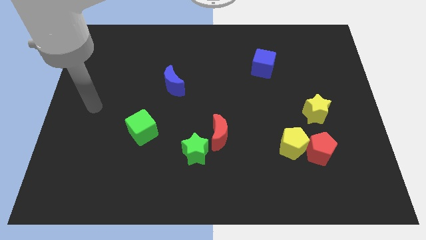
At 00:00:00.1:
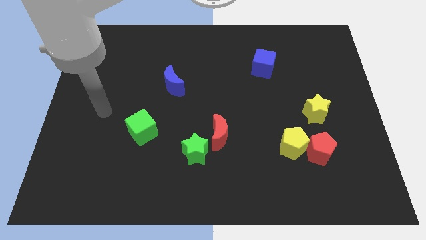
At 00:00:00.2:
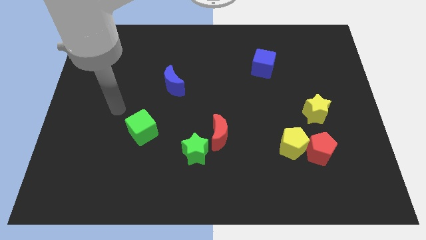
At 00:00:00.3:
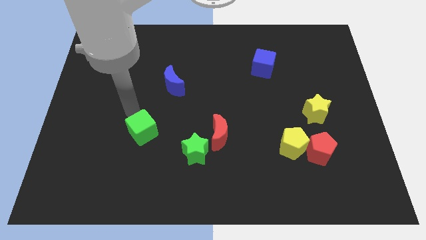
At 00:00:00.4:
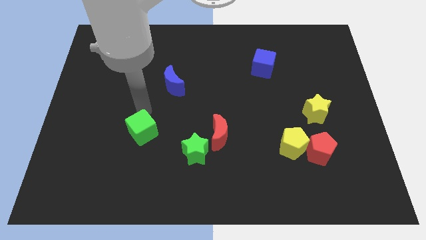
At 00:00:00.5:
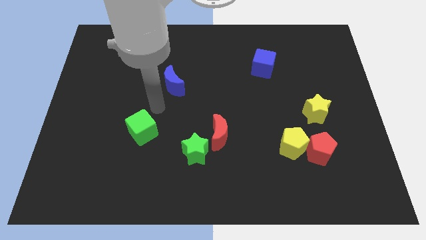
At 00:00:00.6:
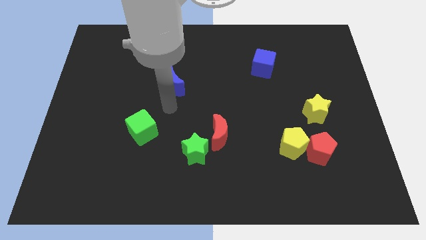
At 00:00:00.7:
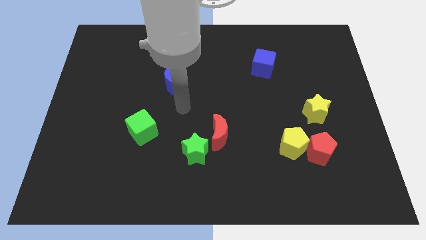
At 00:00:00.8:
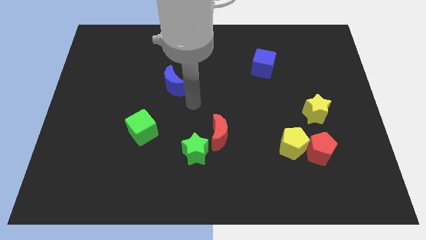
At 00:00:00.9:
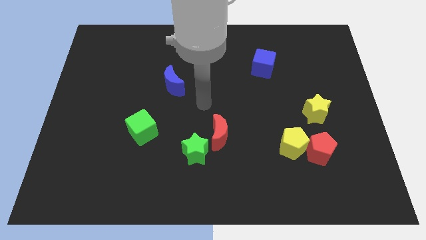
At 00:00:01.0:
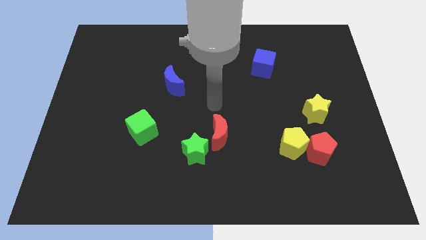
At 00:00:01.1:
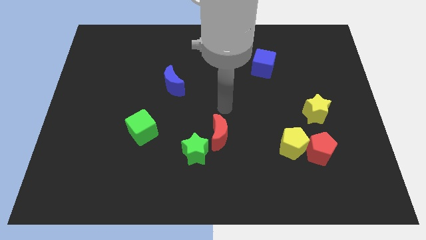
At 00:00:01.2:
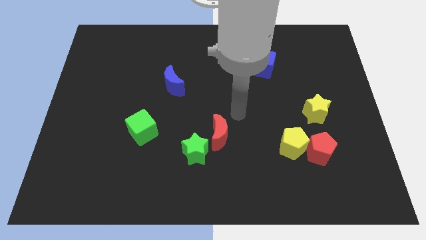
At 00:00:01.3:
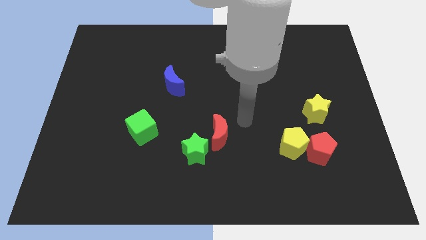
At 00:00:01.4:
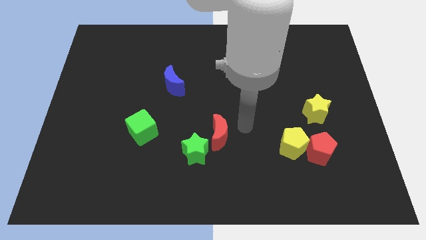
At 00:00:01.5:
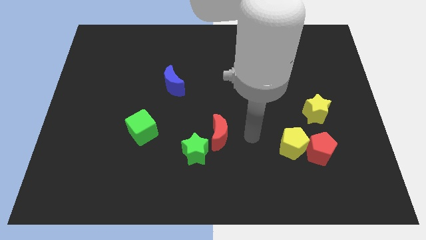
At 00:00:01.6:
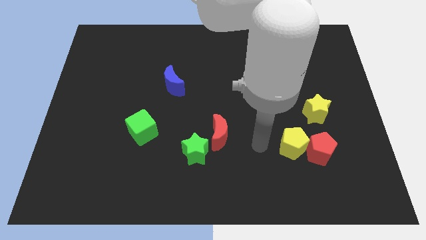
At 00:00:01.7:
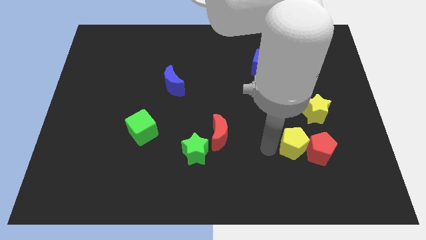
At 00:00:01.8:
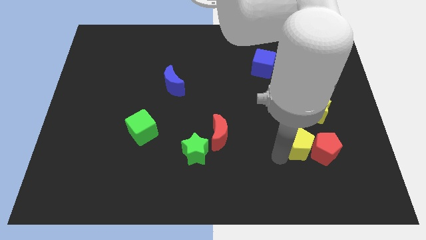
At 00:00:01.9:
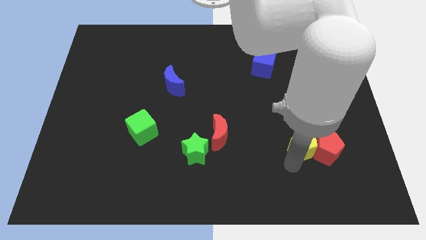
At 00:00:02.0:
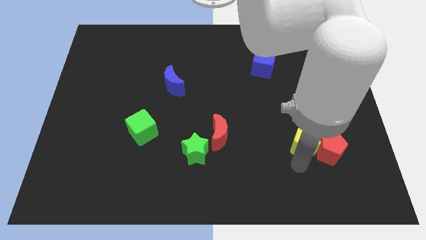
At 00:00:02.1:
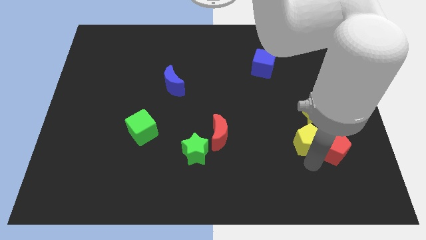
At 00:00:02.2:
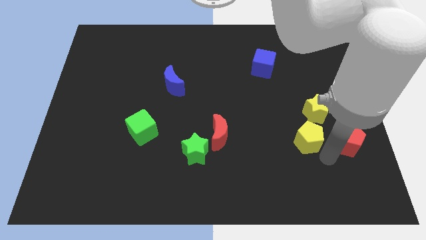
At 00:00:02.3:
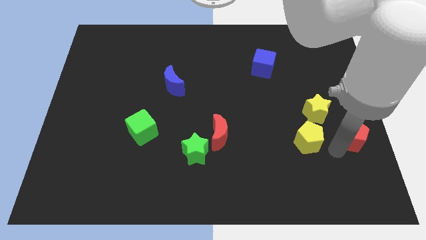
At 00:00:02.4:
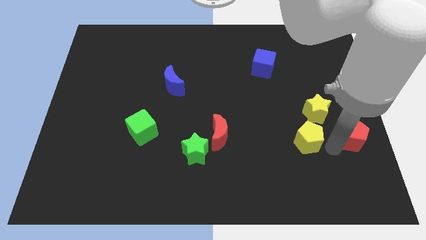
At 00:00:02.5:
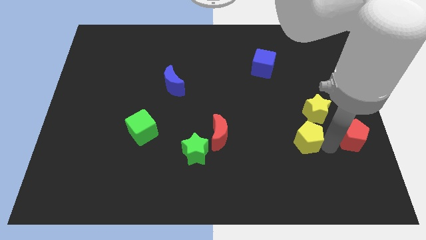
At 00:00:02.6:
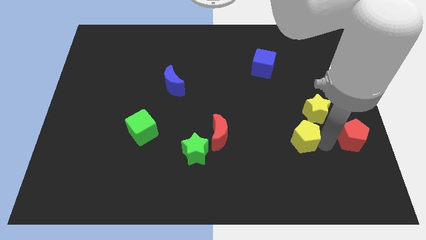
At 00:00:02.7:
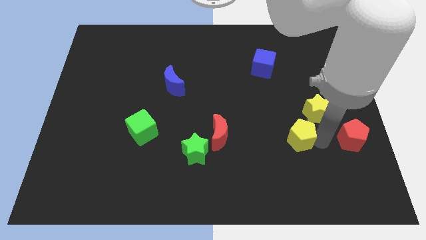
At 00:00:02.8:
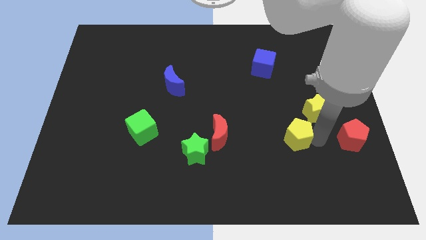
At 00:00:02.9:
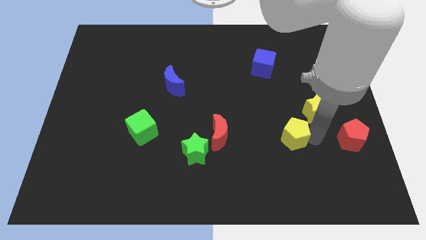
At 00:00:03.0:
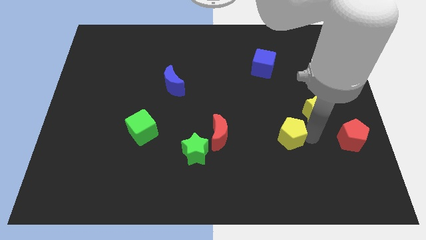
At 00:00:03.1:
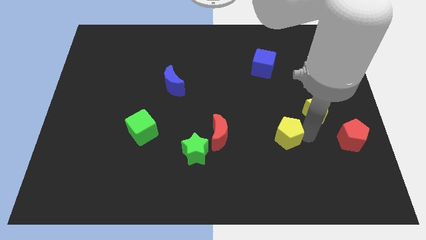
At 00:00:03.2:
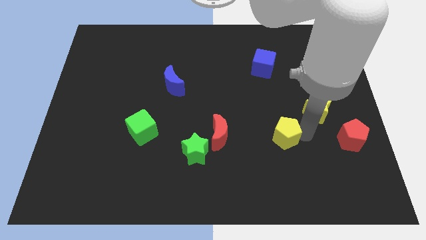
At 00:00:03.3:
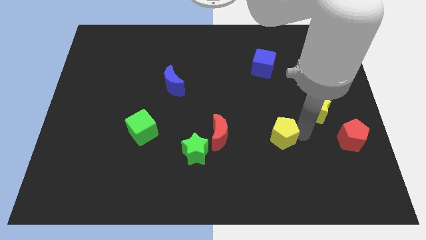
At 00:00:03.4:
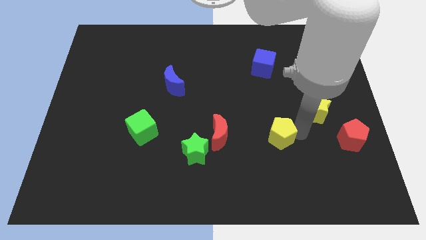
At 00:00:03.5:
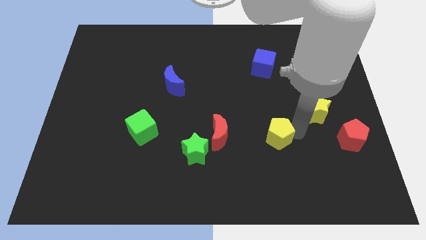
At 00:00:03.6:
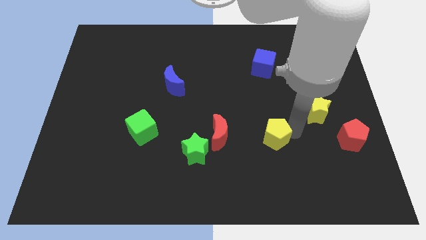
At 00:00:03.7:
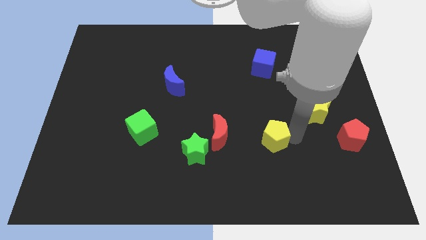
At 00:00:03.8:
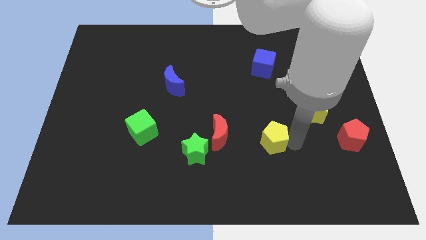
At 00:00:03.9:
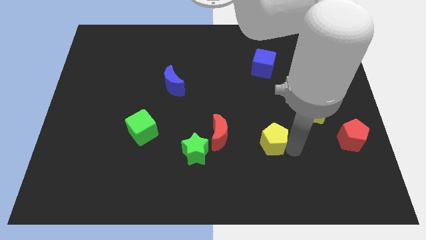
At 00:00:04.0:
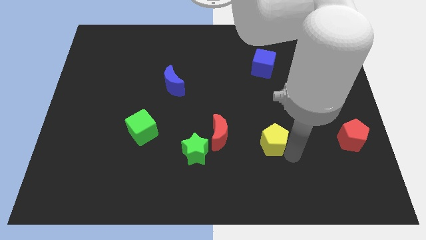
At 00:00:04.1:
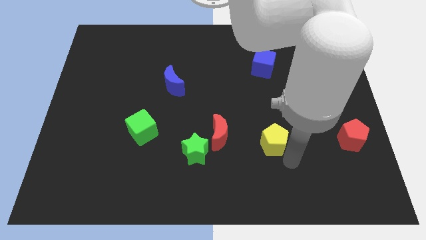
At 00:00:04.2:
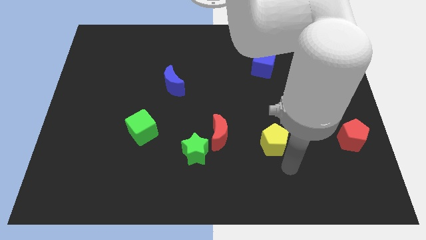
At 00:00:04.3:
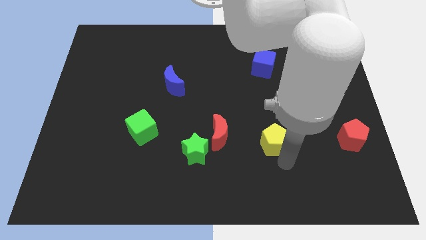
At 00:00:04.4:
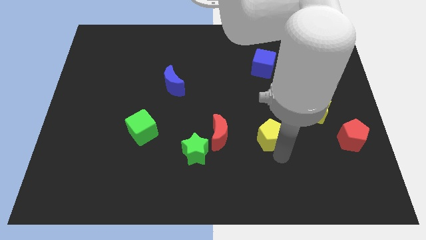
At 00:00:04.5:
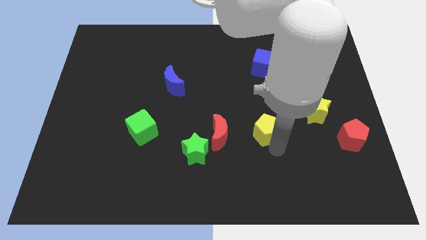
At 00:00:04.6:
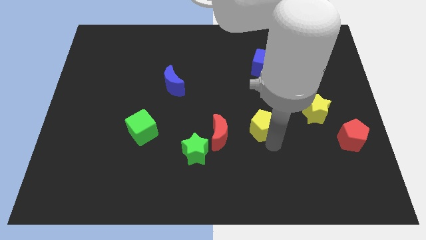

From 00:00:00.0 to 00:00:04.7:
slightly slide the yellow pentagon diagonally up and to the left

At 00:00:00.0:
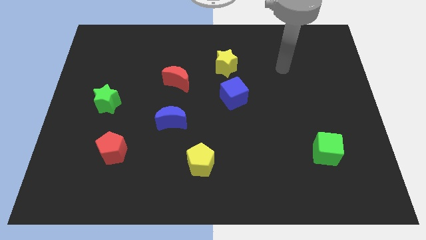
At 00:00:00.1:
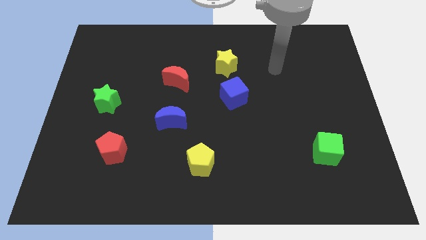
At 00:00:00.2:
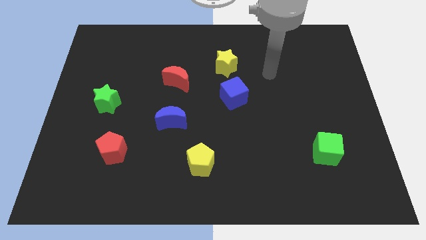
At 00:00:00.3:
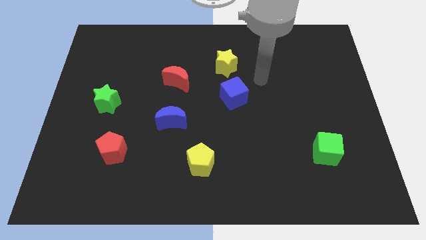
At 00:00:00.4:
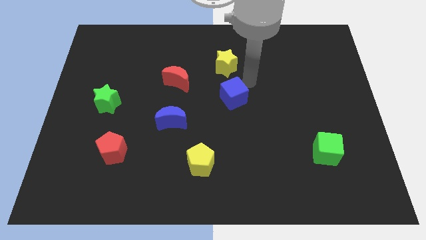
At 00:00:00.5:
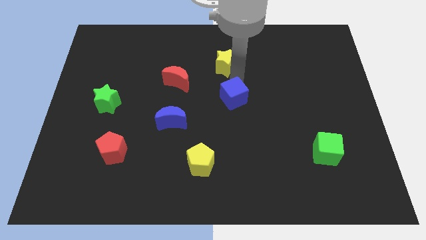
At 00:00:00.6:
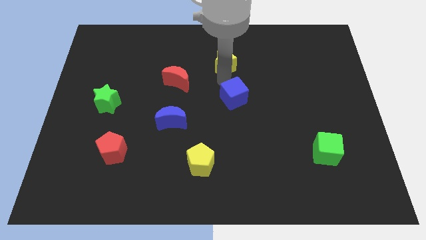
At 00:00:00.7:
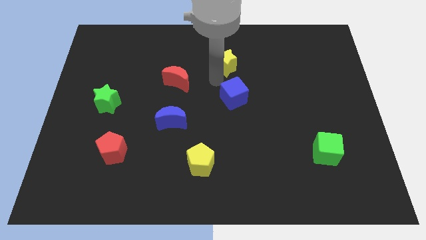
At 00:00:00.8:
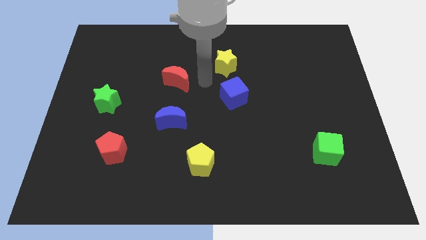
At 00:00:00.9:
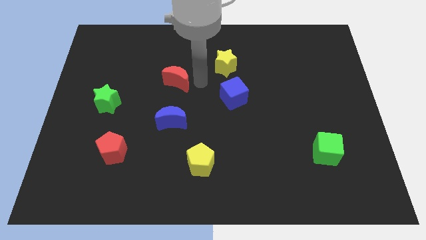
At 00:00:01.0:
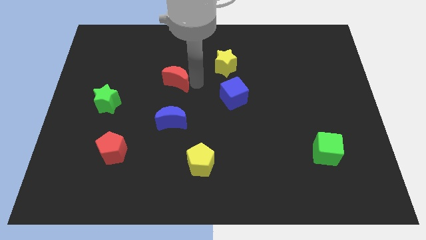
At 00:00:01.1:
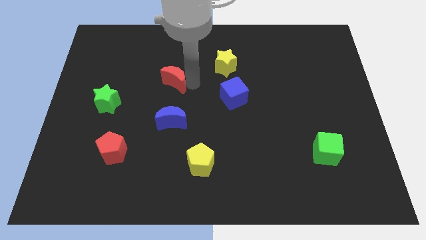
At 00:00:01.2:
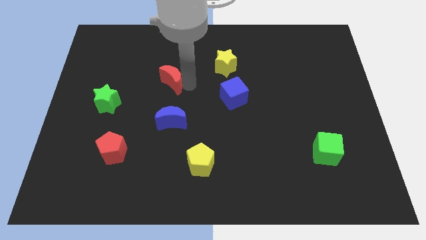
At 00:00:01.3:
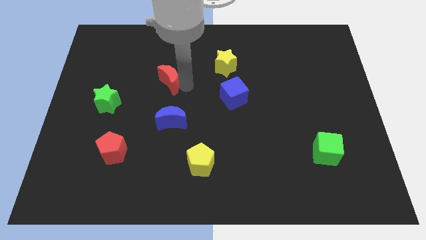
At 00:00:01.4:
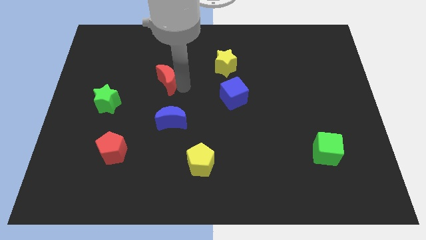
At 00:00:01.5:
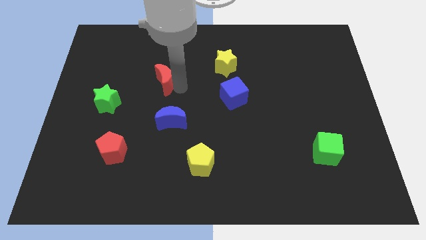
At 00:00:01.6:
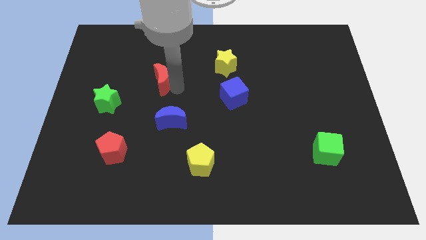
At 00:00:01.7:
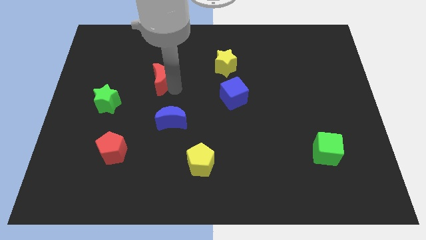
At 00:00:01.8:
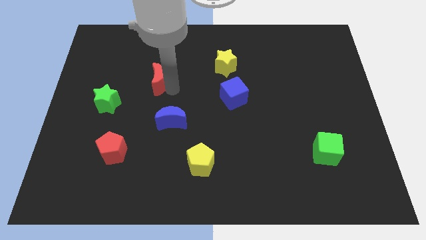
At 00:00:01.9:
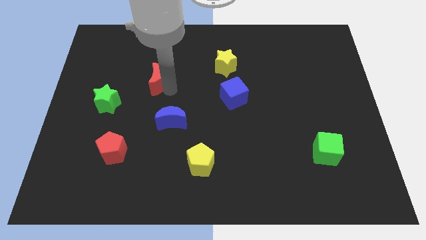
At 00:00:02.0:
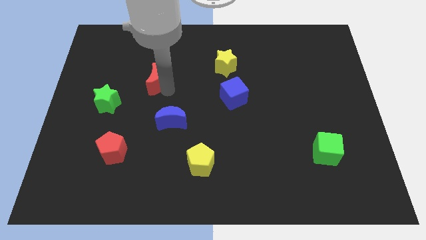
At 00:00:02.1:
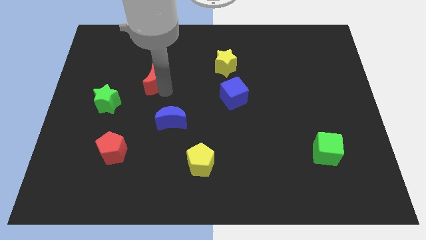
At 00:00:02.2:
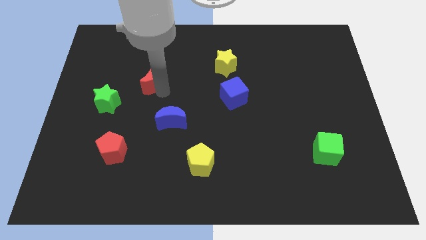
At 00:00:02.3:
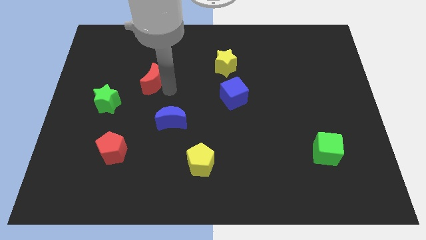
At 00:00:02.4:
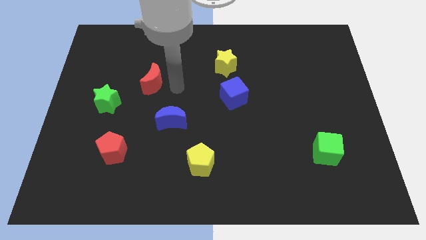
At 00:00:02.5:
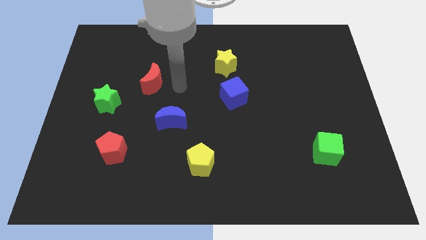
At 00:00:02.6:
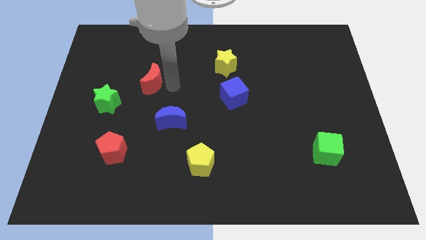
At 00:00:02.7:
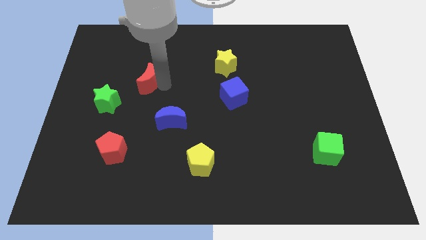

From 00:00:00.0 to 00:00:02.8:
slightly push the red moon left

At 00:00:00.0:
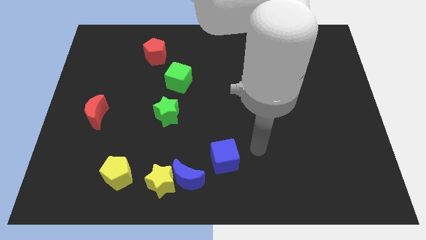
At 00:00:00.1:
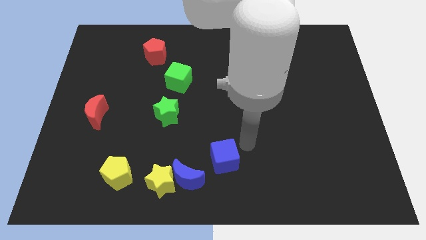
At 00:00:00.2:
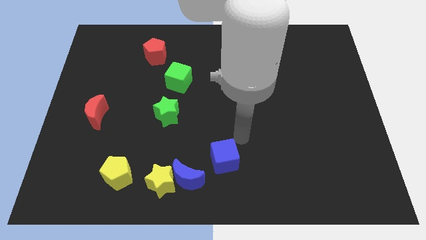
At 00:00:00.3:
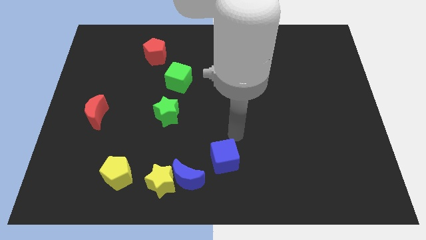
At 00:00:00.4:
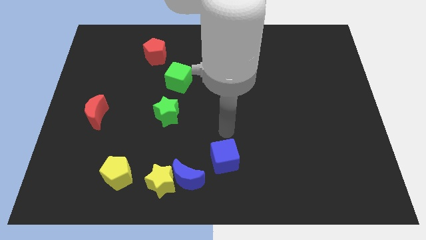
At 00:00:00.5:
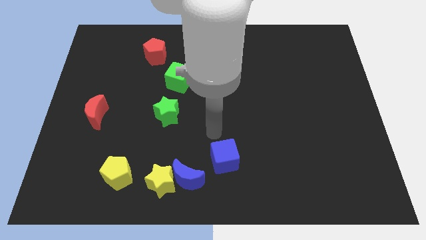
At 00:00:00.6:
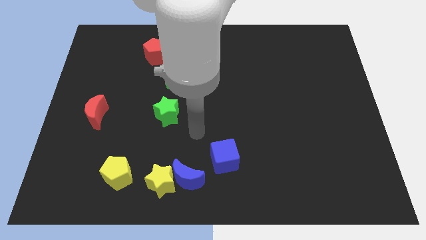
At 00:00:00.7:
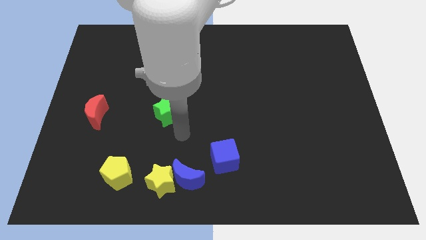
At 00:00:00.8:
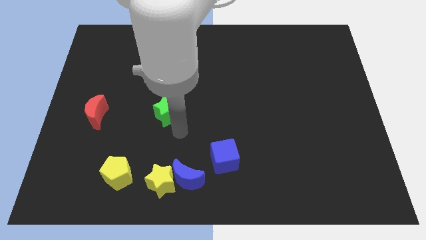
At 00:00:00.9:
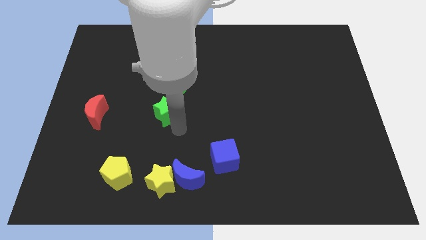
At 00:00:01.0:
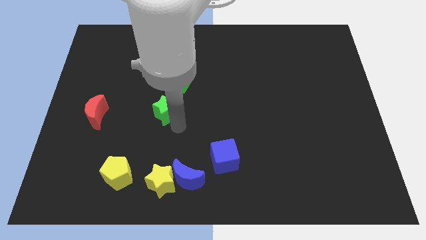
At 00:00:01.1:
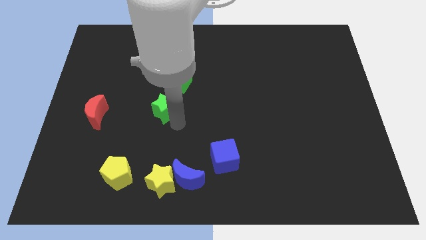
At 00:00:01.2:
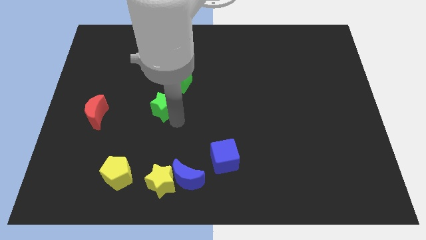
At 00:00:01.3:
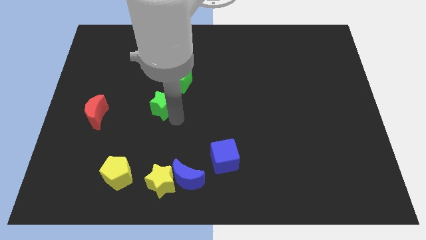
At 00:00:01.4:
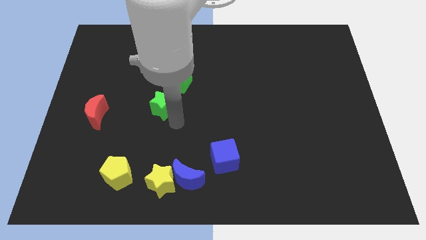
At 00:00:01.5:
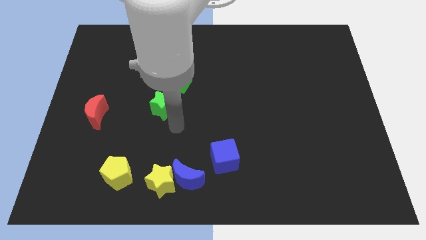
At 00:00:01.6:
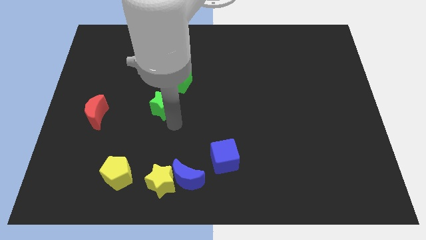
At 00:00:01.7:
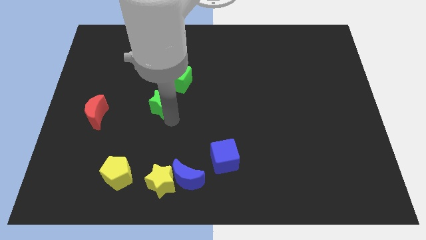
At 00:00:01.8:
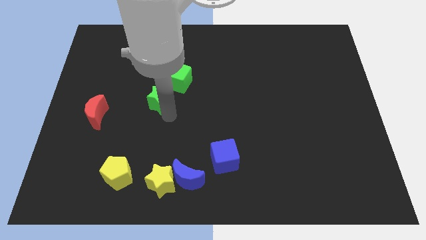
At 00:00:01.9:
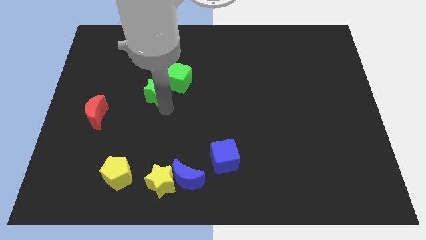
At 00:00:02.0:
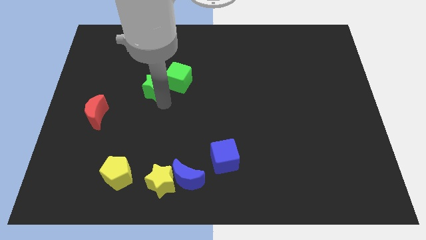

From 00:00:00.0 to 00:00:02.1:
push the green star upwards and left diagonally somewhat
